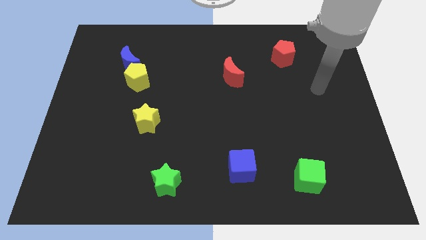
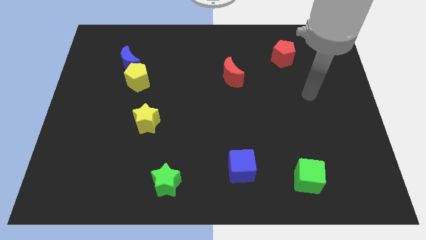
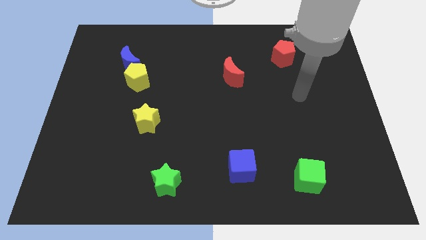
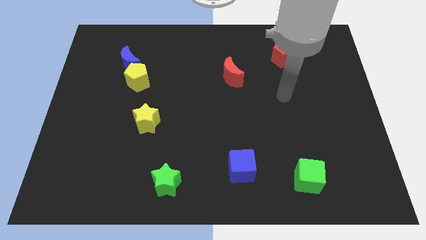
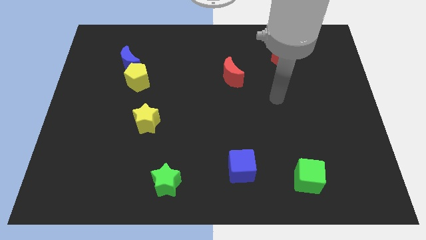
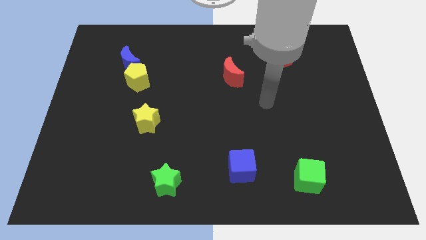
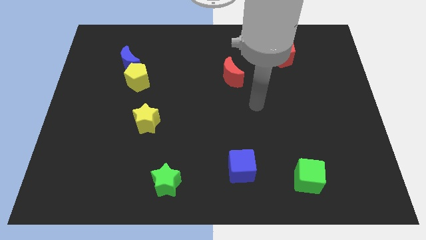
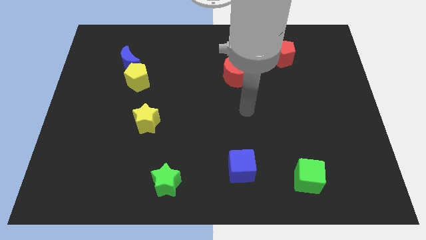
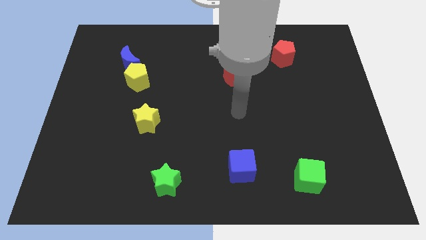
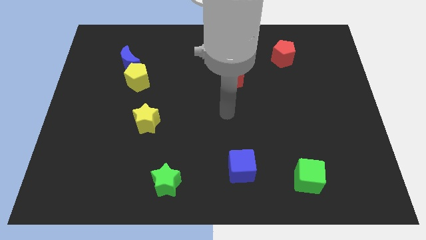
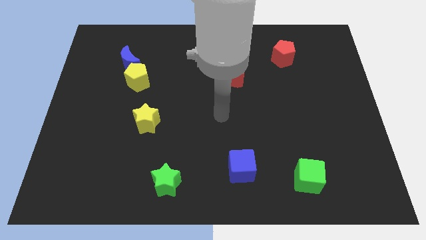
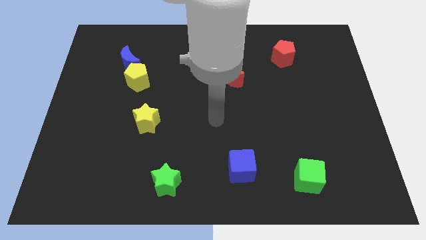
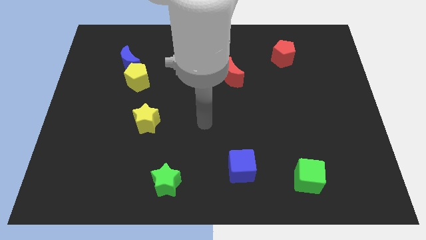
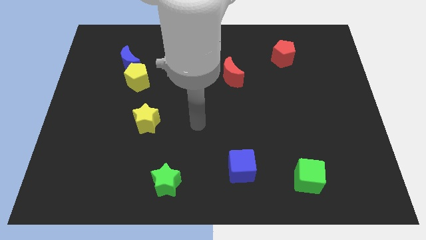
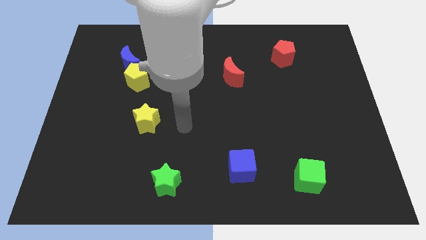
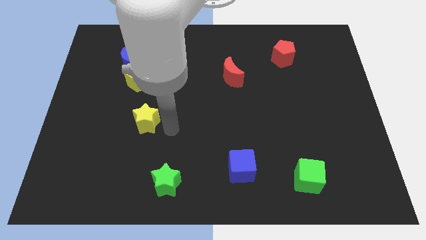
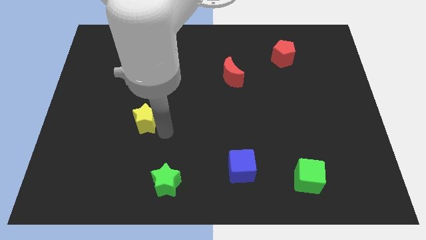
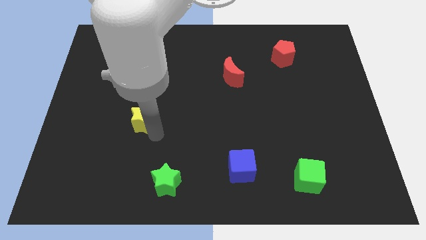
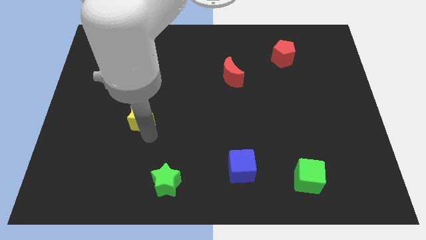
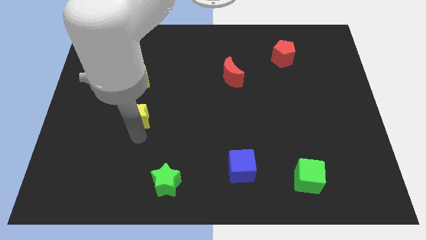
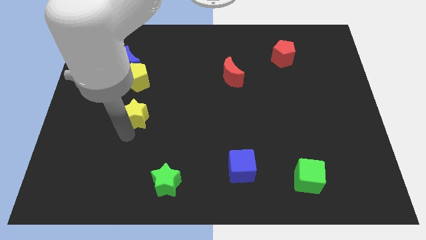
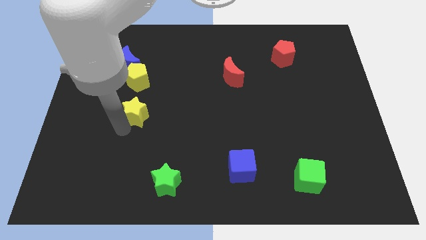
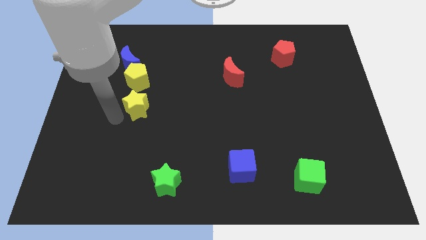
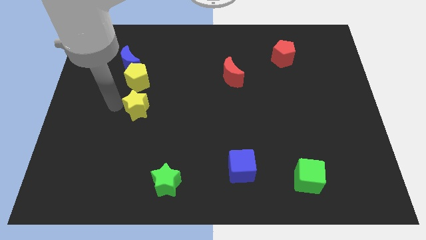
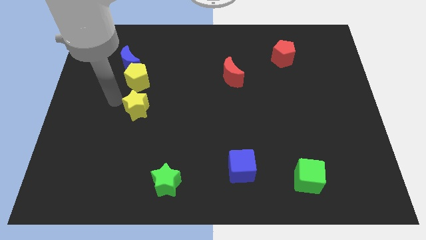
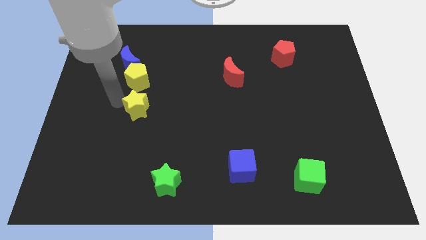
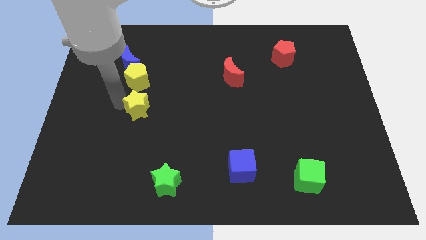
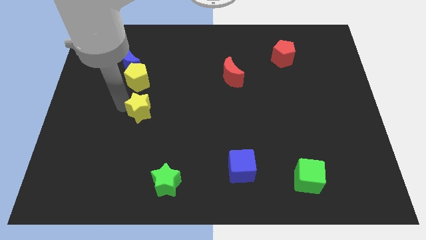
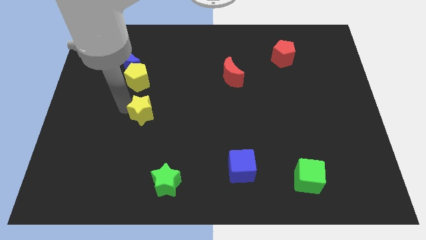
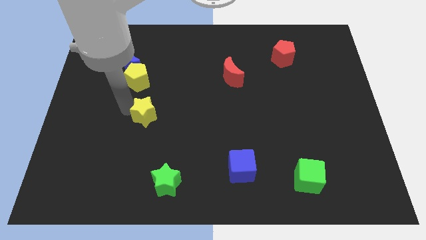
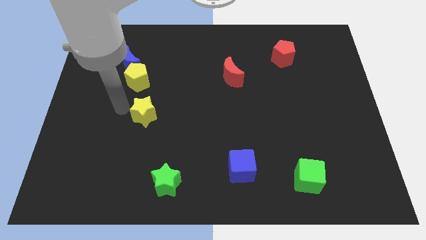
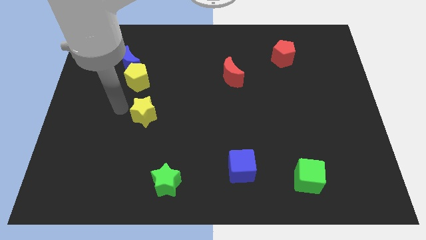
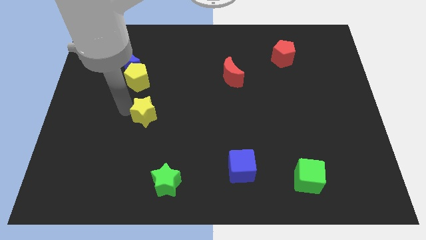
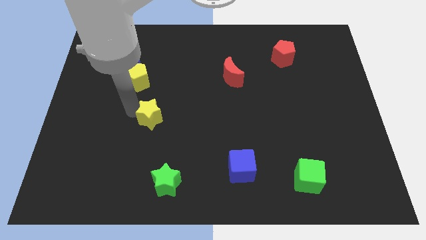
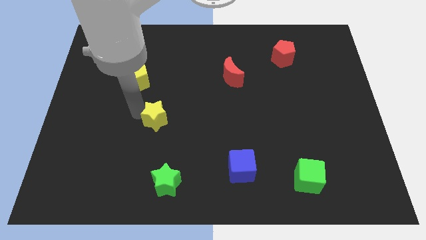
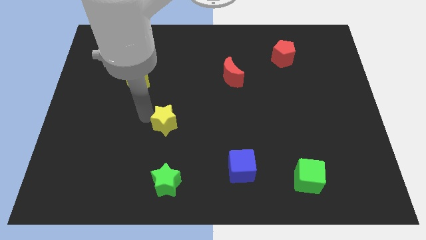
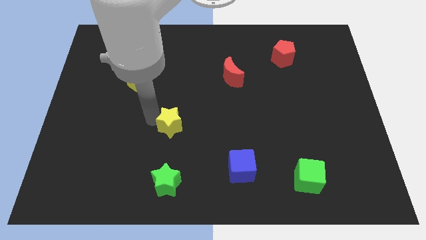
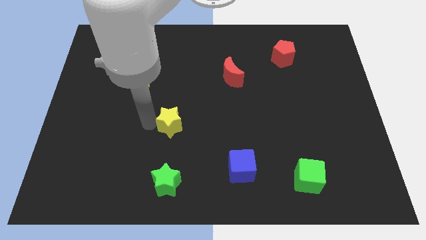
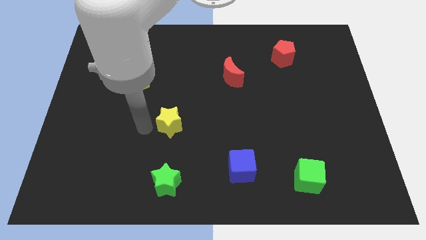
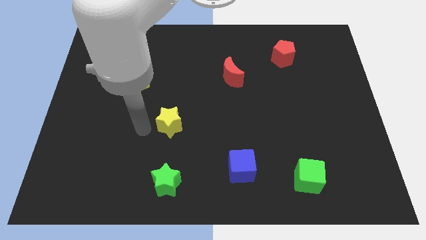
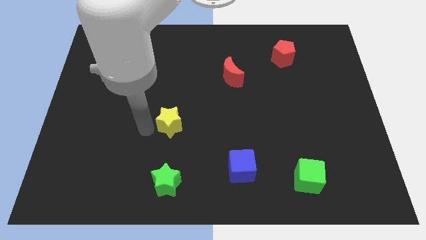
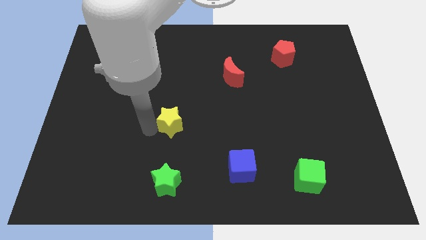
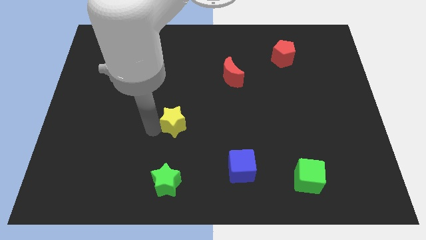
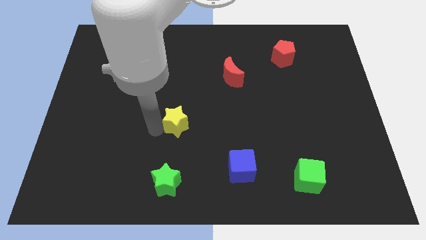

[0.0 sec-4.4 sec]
slightly slide the yellow star to the right

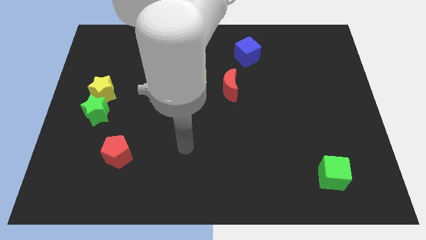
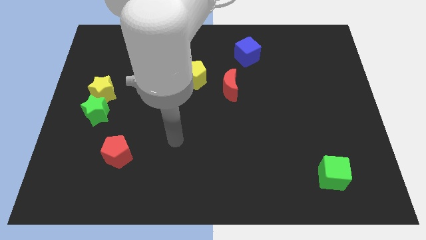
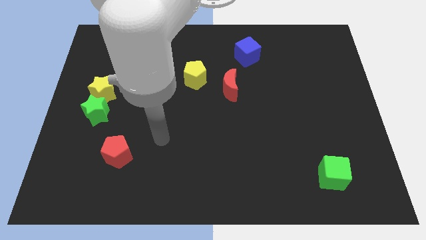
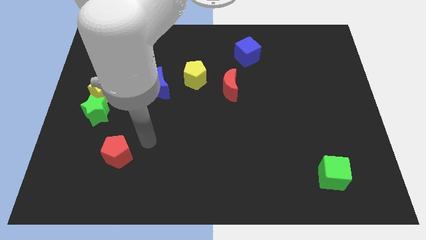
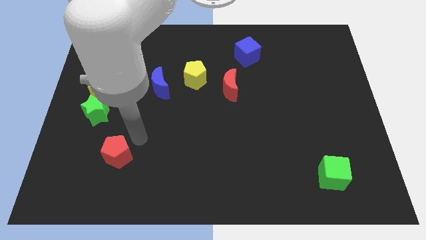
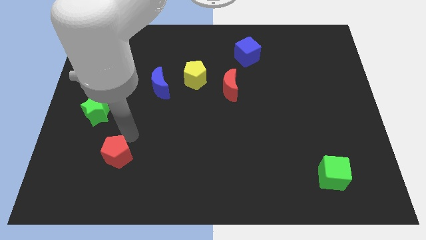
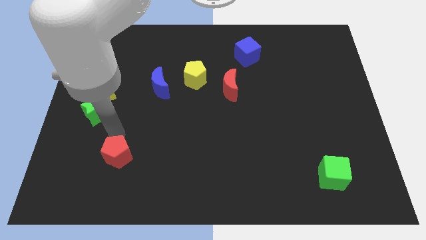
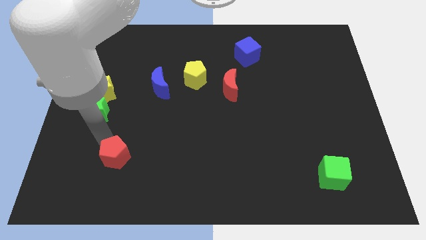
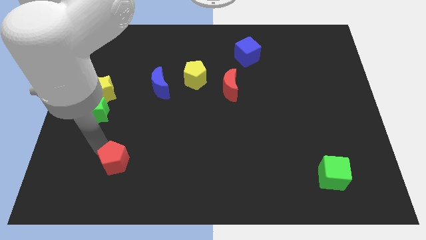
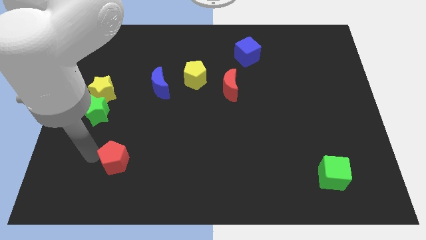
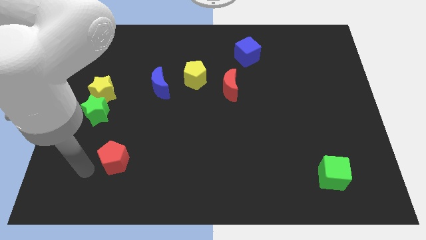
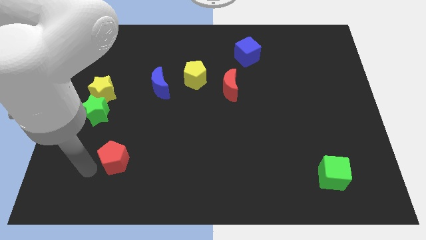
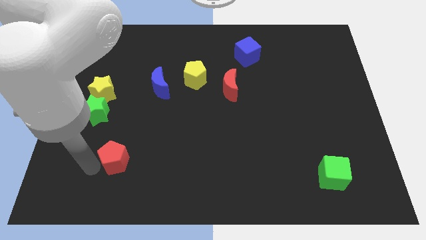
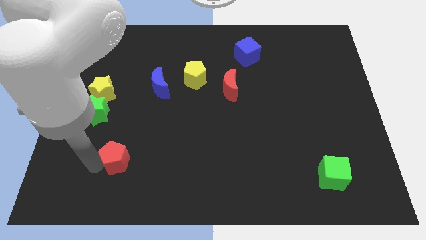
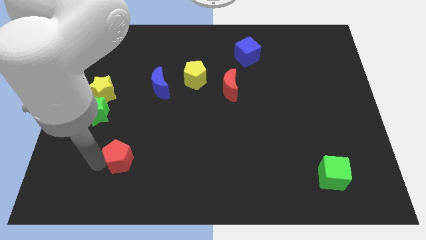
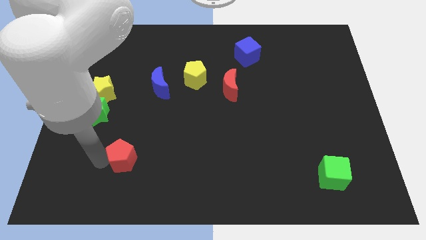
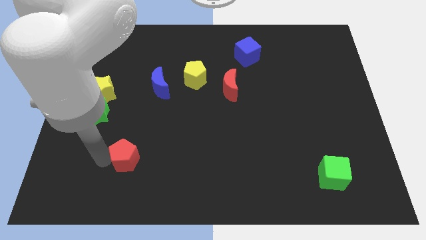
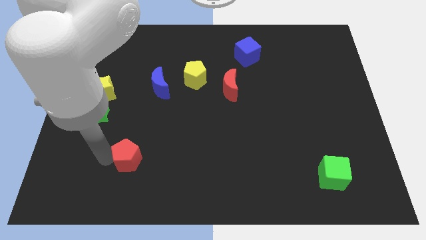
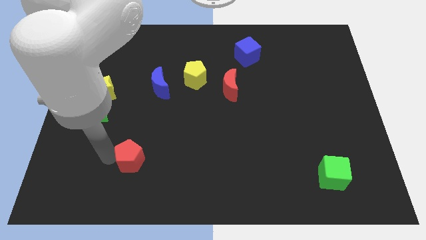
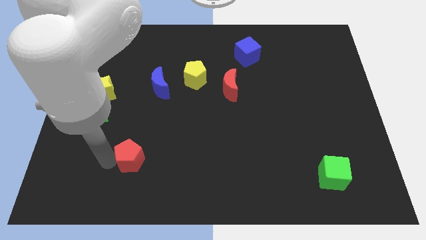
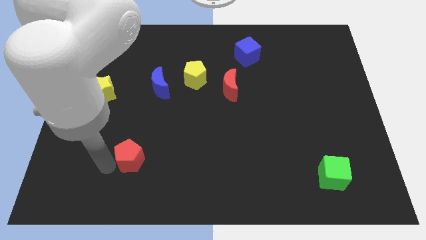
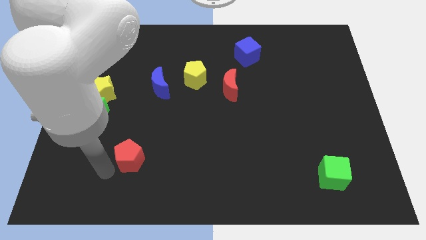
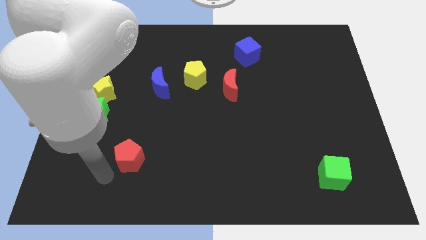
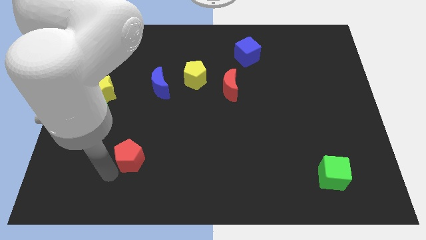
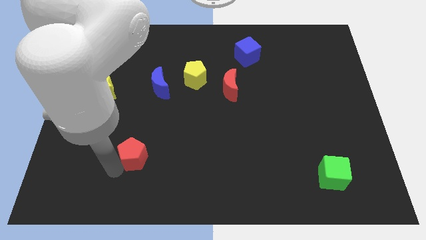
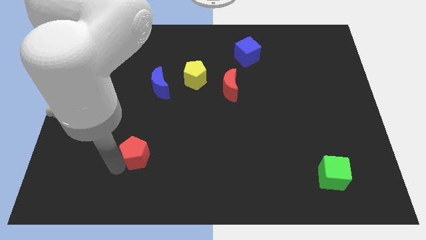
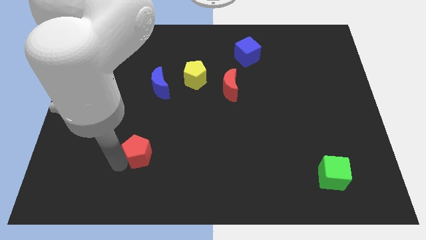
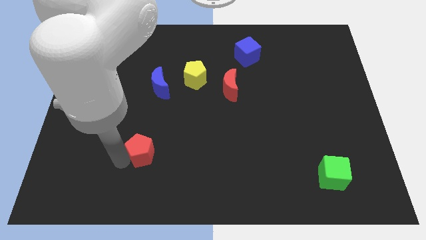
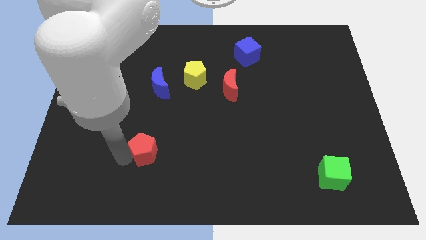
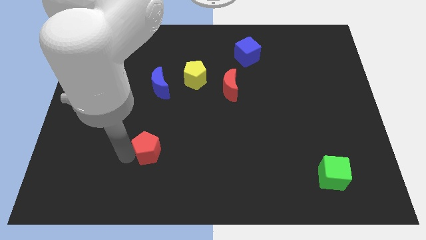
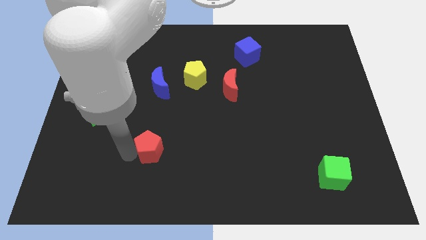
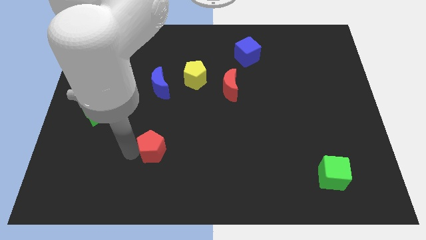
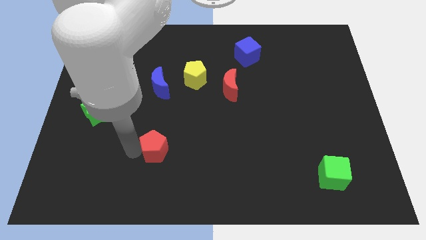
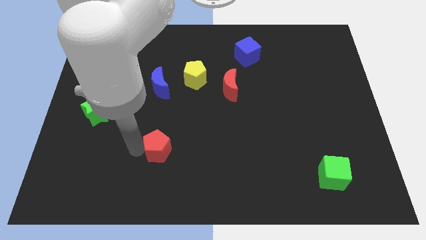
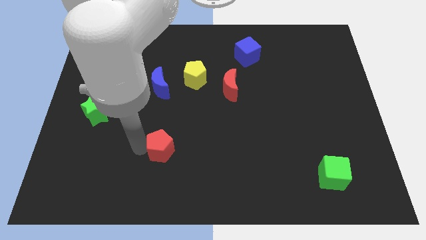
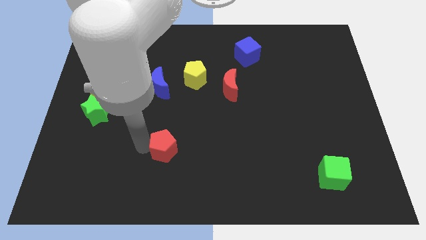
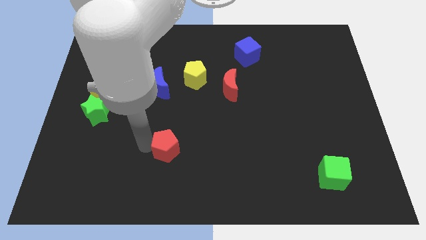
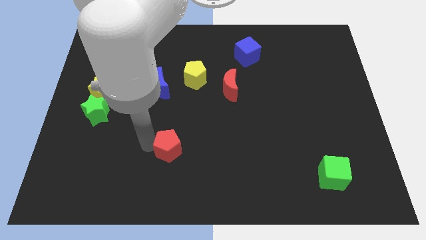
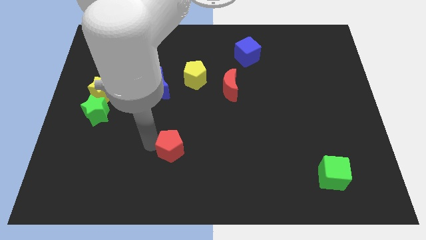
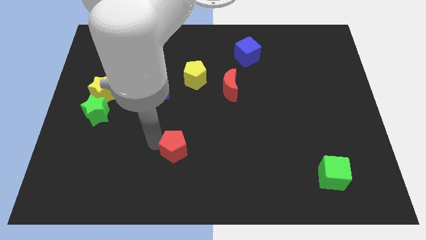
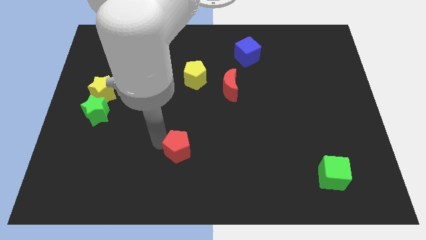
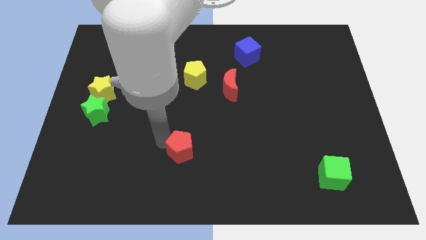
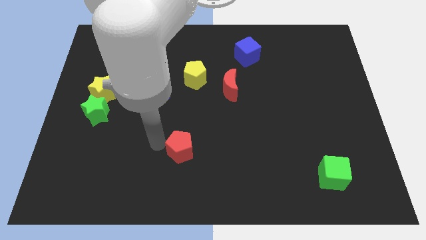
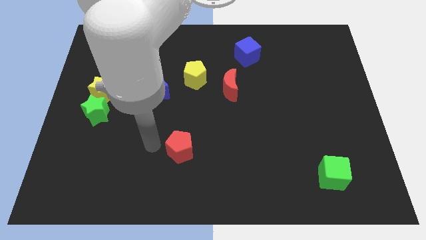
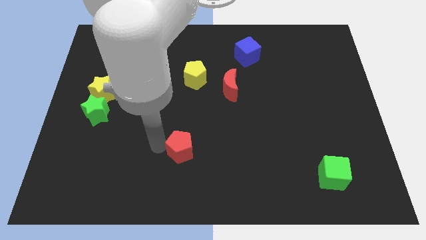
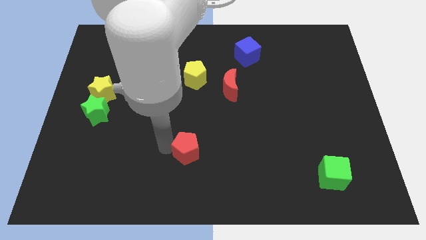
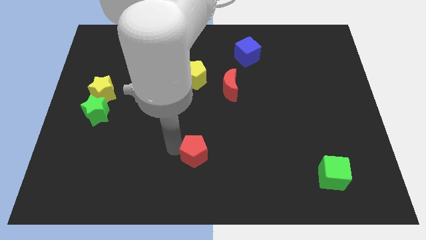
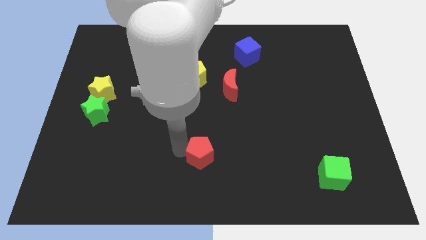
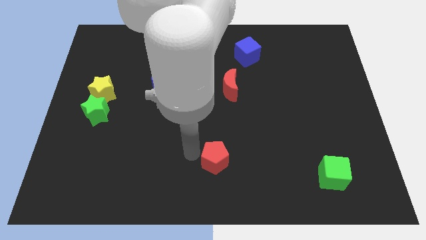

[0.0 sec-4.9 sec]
slide the red pentagon to the right
